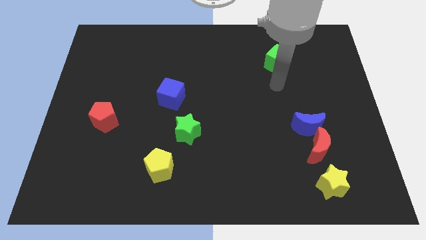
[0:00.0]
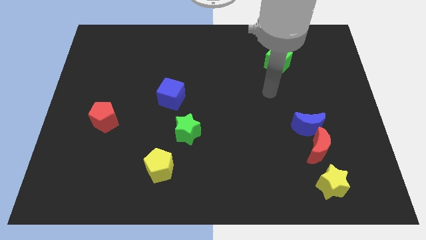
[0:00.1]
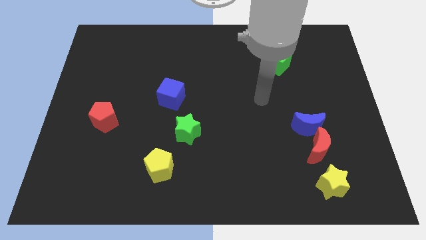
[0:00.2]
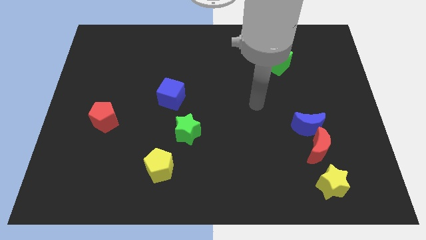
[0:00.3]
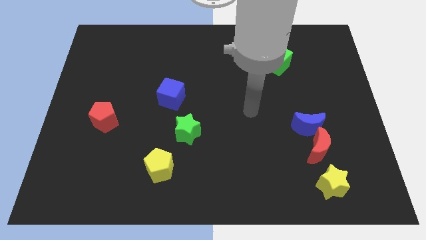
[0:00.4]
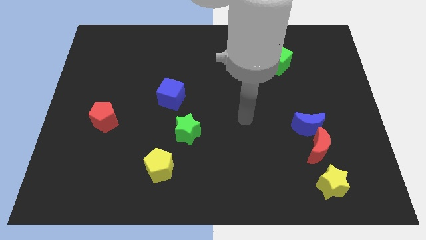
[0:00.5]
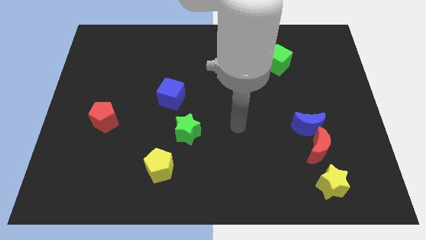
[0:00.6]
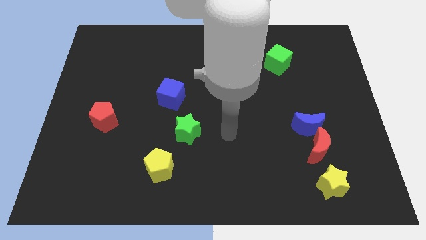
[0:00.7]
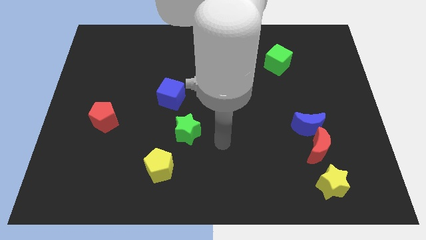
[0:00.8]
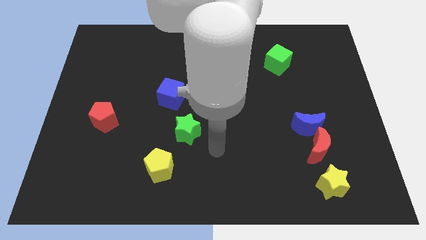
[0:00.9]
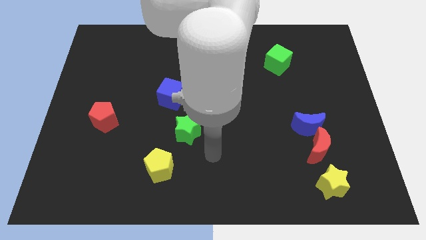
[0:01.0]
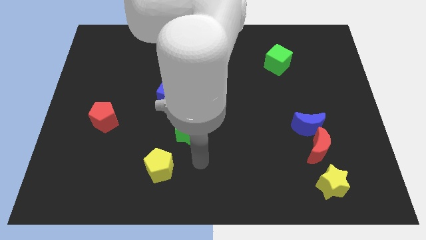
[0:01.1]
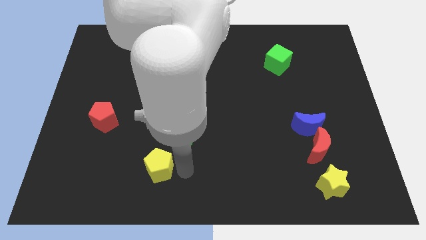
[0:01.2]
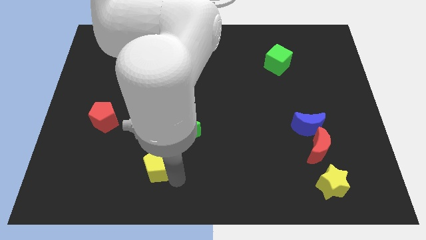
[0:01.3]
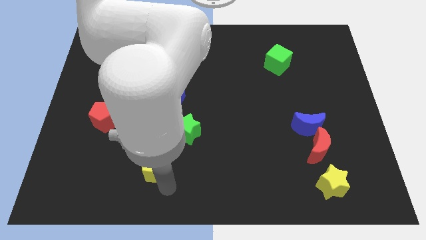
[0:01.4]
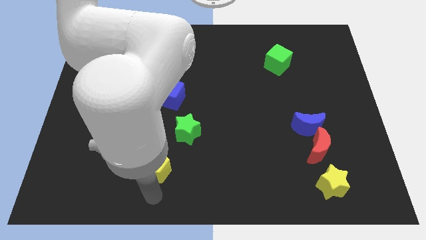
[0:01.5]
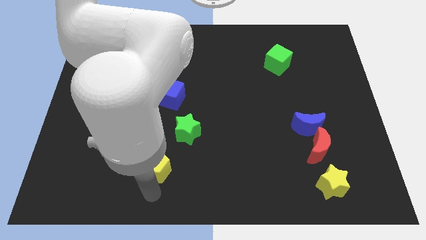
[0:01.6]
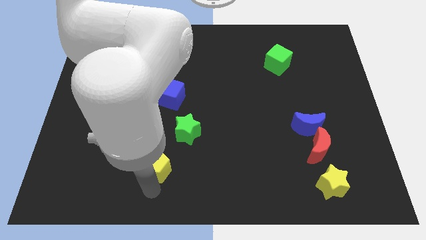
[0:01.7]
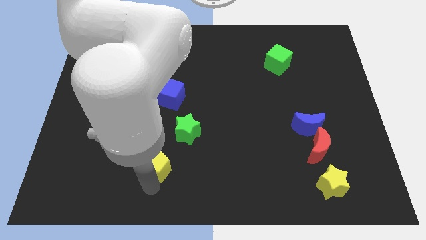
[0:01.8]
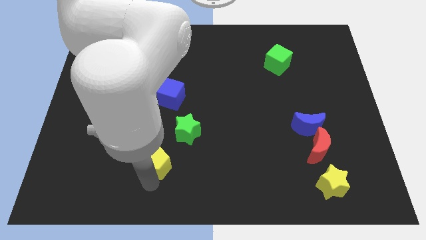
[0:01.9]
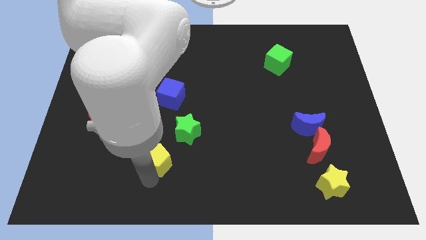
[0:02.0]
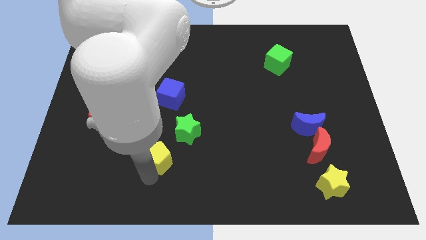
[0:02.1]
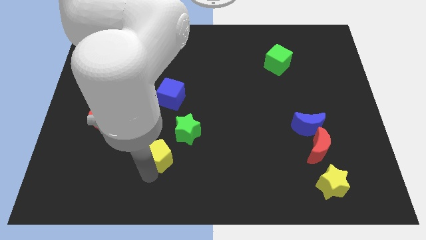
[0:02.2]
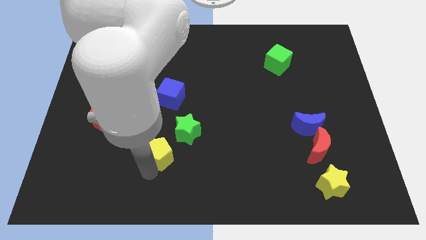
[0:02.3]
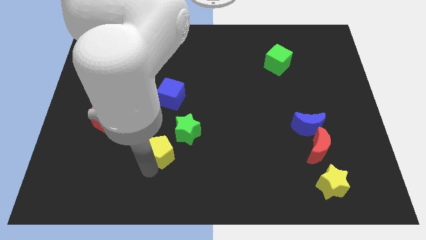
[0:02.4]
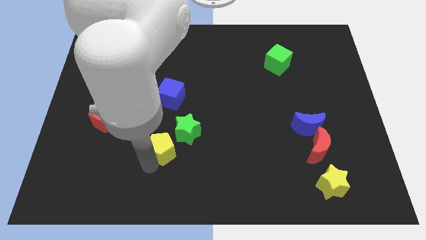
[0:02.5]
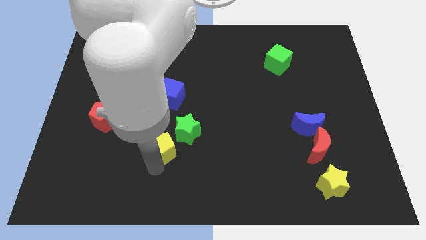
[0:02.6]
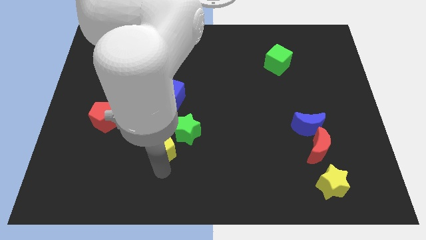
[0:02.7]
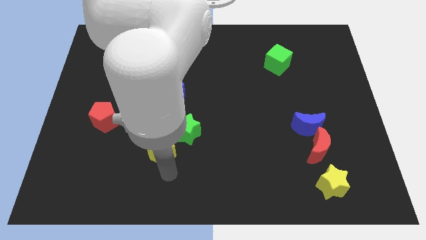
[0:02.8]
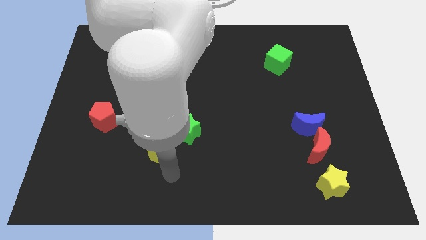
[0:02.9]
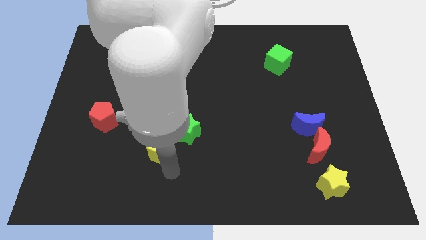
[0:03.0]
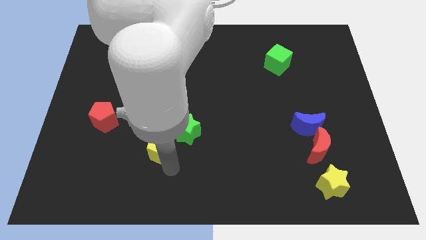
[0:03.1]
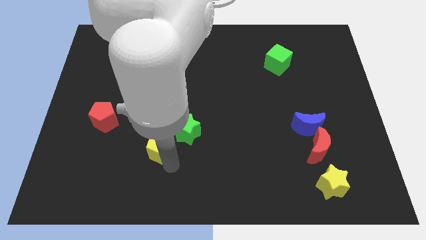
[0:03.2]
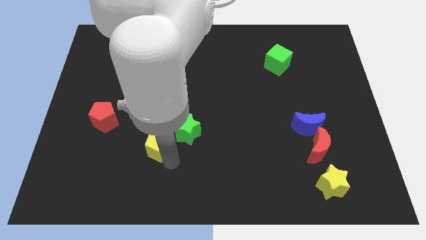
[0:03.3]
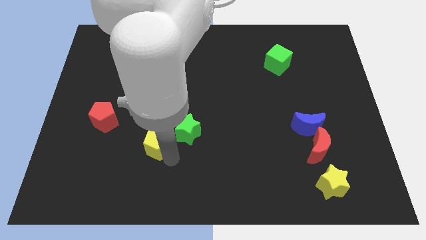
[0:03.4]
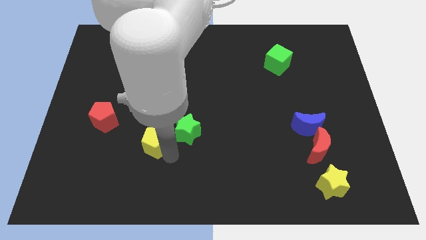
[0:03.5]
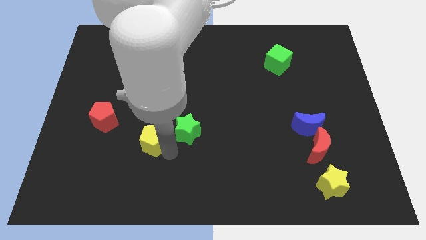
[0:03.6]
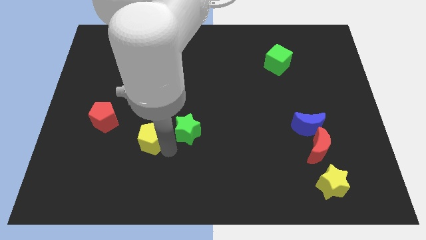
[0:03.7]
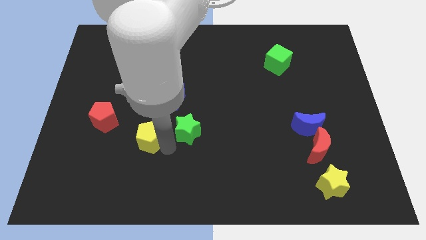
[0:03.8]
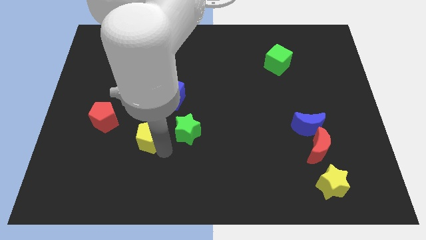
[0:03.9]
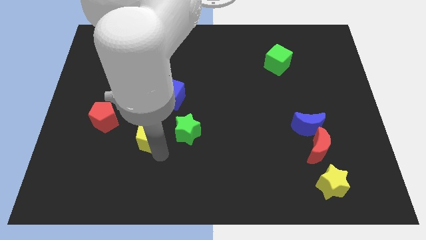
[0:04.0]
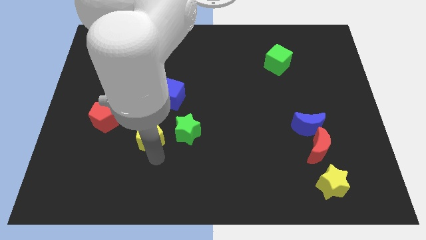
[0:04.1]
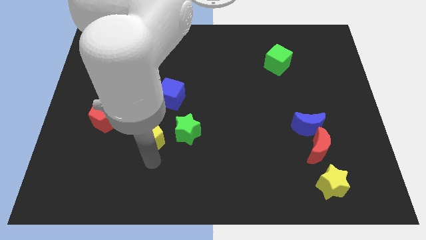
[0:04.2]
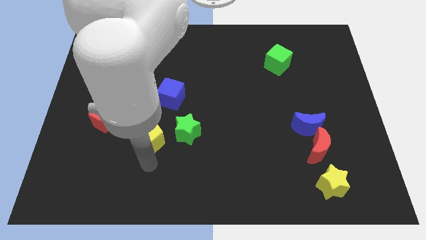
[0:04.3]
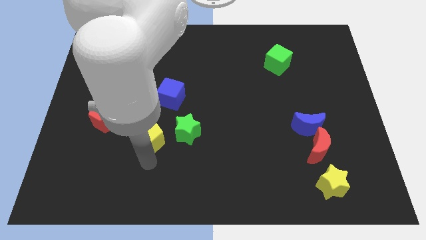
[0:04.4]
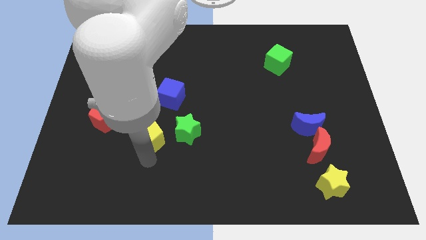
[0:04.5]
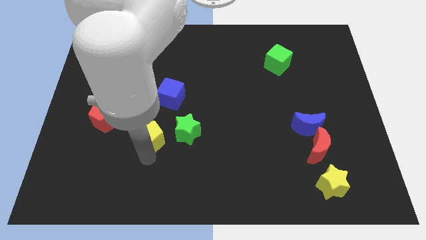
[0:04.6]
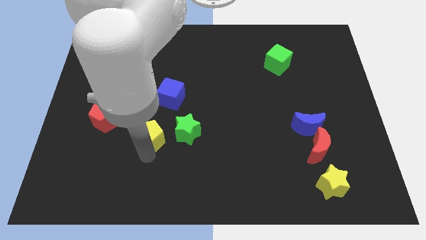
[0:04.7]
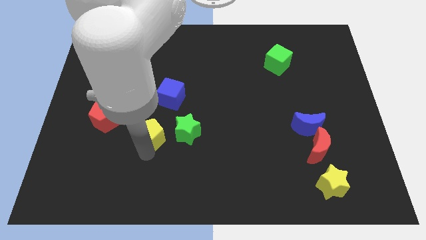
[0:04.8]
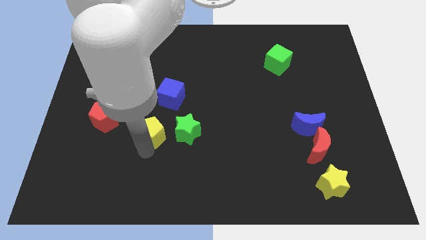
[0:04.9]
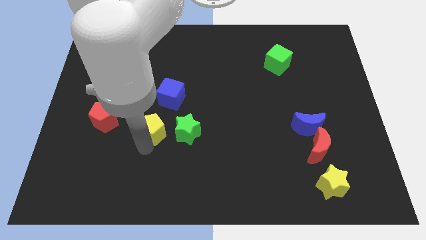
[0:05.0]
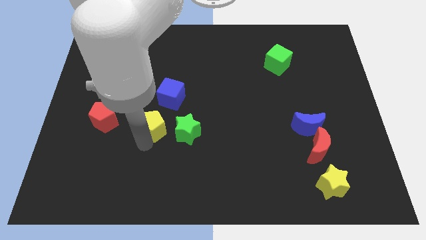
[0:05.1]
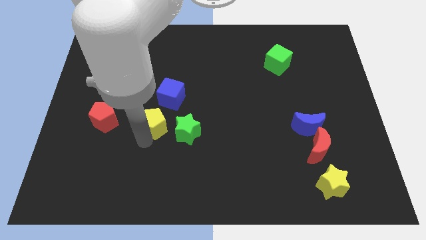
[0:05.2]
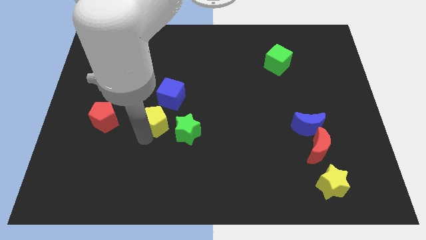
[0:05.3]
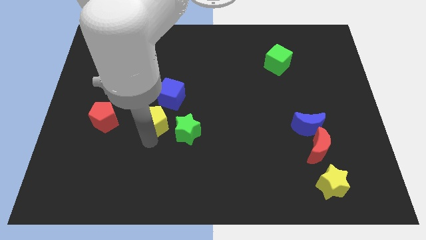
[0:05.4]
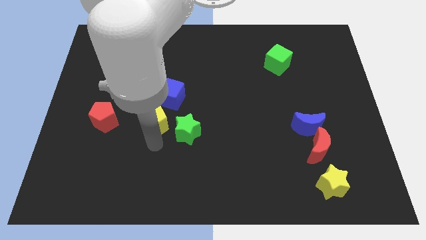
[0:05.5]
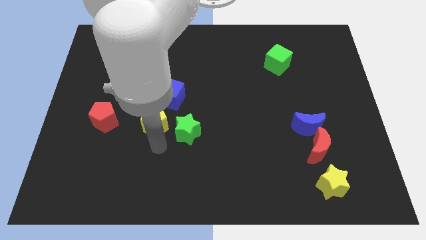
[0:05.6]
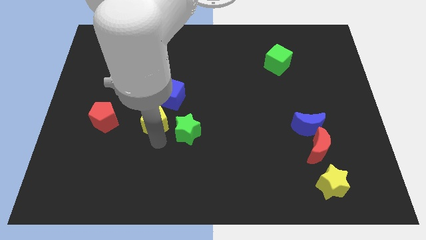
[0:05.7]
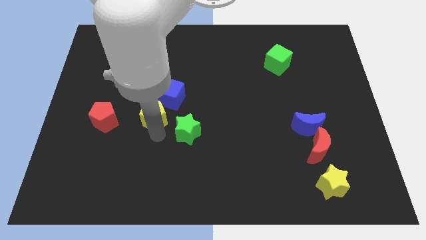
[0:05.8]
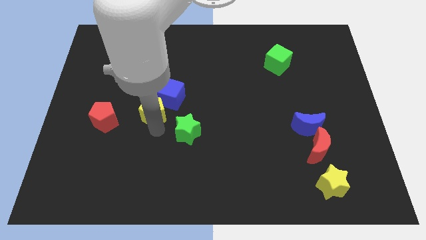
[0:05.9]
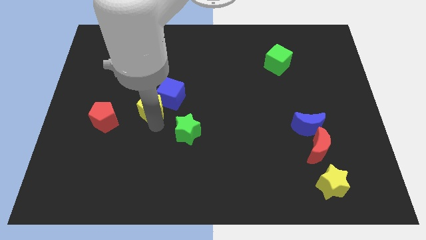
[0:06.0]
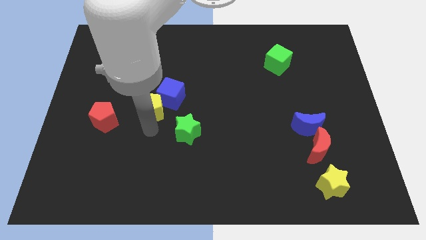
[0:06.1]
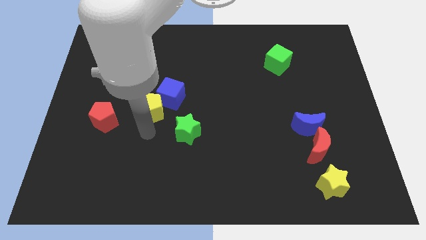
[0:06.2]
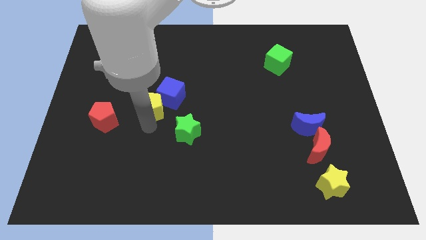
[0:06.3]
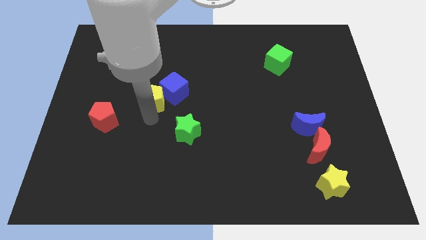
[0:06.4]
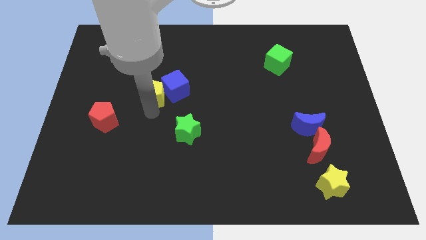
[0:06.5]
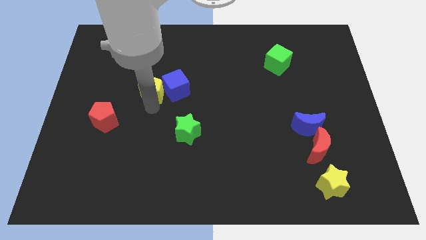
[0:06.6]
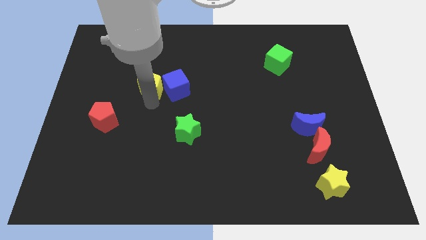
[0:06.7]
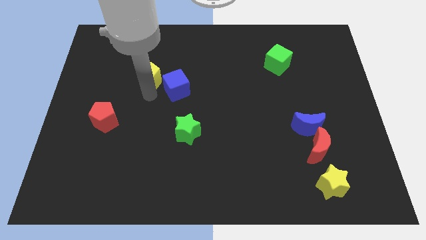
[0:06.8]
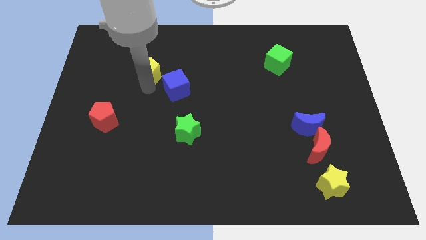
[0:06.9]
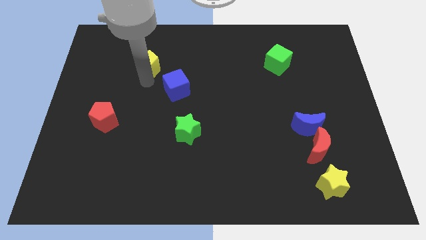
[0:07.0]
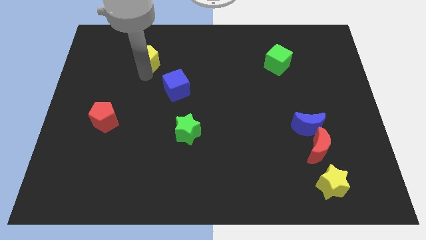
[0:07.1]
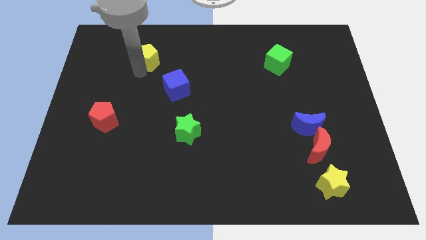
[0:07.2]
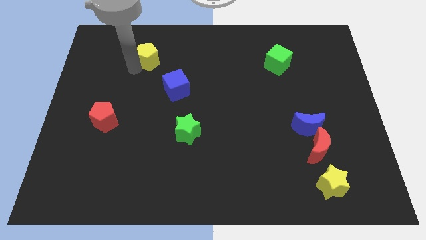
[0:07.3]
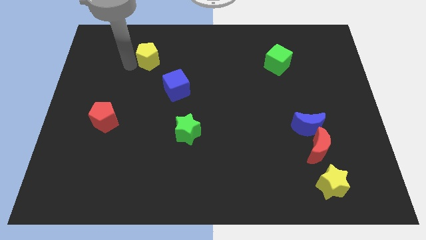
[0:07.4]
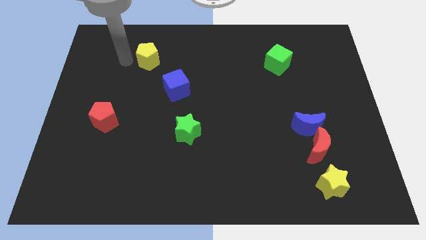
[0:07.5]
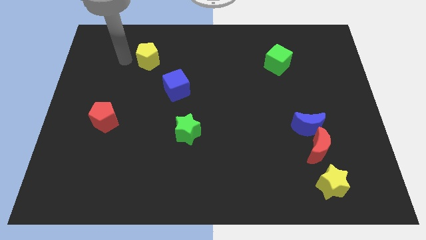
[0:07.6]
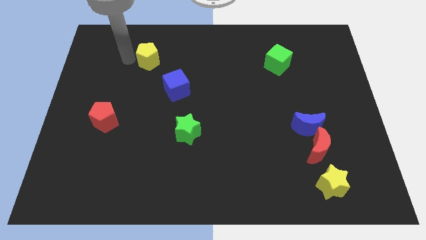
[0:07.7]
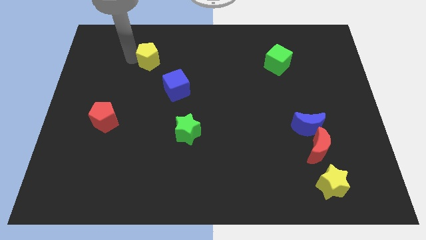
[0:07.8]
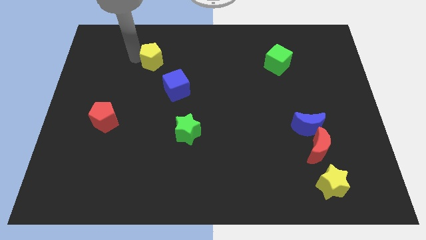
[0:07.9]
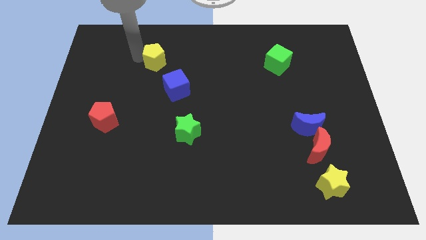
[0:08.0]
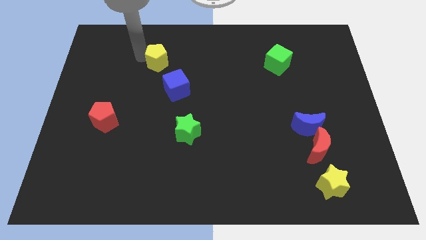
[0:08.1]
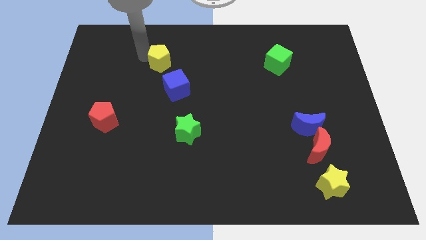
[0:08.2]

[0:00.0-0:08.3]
put the yellow pentagon to the top side of the blue cube
